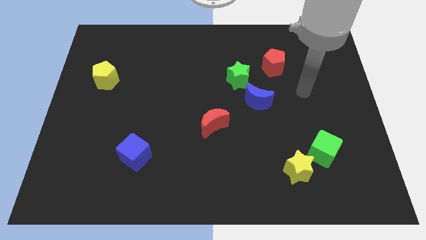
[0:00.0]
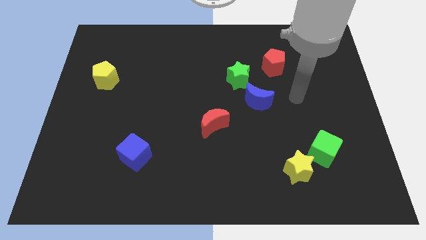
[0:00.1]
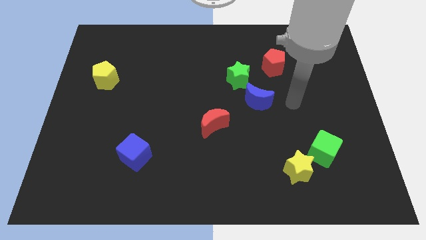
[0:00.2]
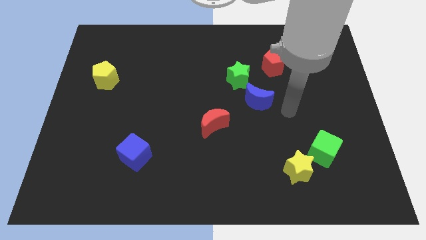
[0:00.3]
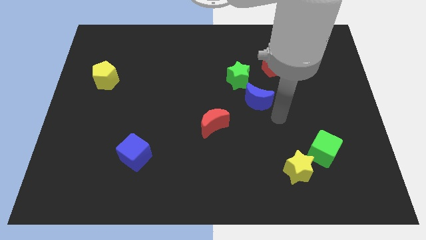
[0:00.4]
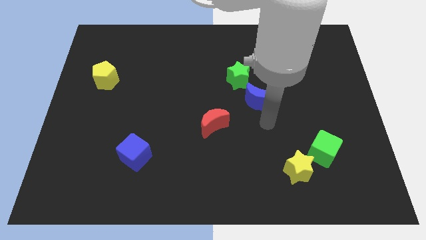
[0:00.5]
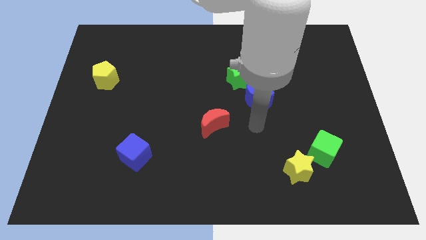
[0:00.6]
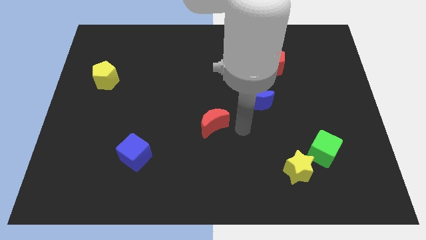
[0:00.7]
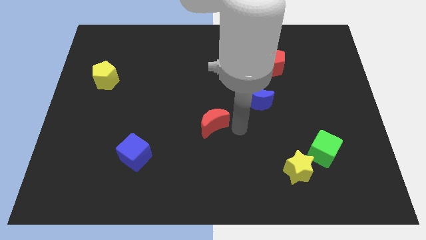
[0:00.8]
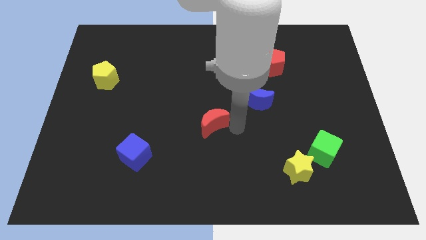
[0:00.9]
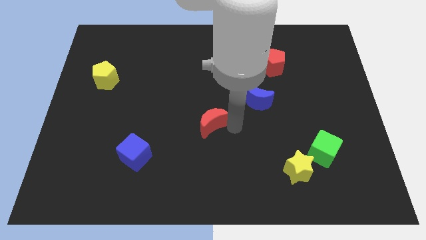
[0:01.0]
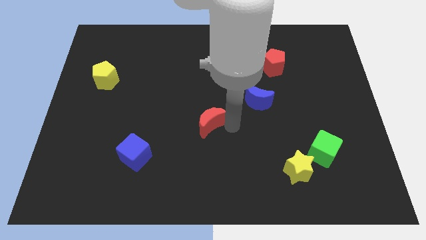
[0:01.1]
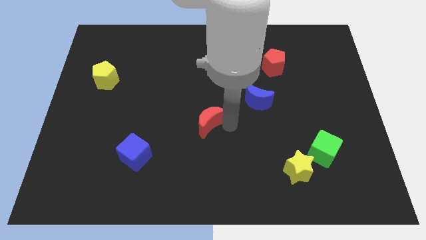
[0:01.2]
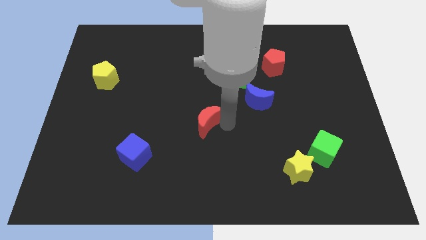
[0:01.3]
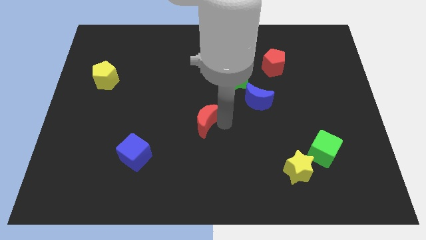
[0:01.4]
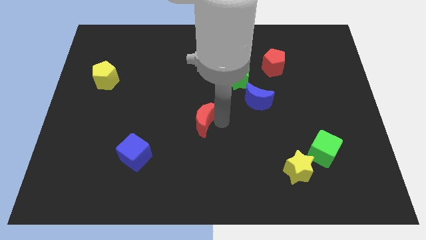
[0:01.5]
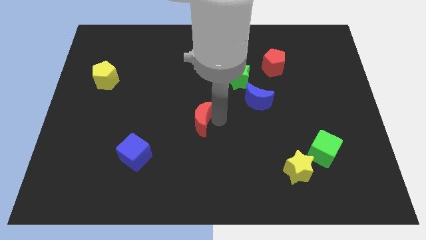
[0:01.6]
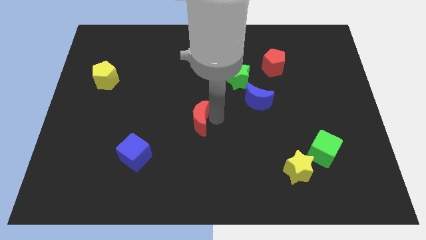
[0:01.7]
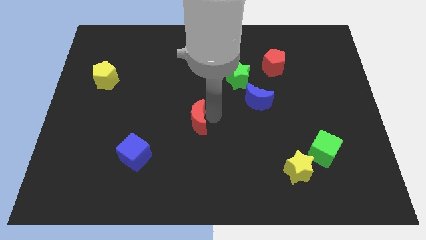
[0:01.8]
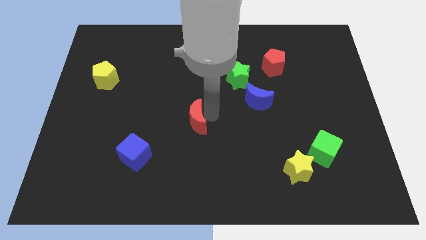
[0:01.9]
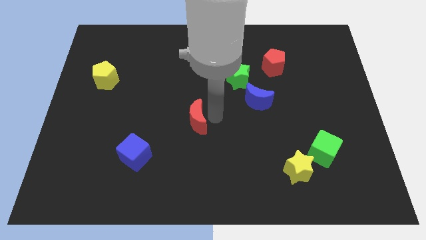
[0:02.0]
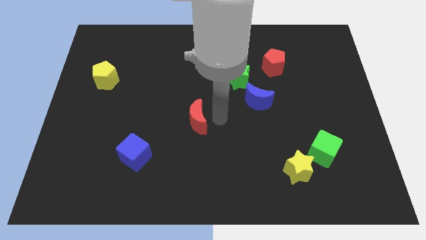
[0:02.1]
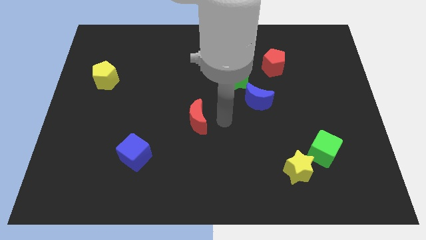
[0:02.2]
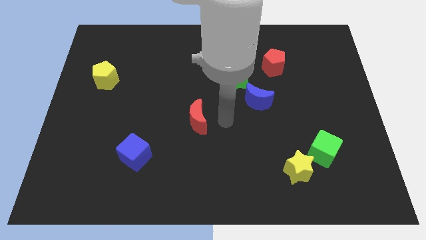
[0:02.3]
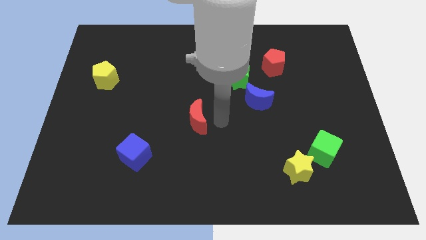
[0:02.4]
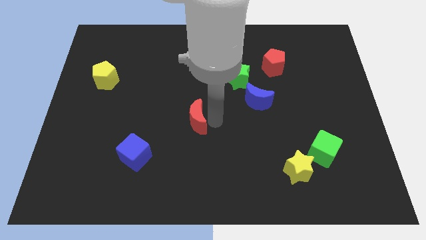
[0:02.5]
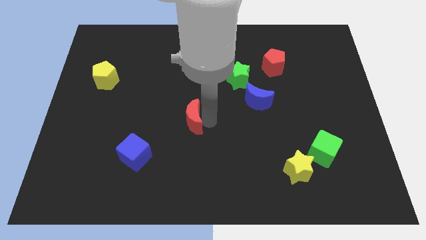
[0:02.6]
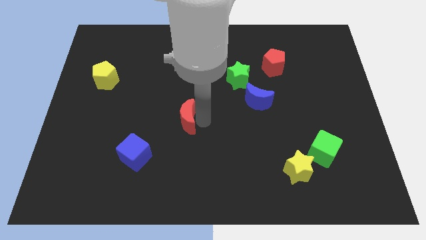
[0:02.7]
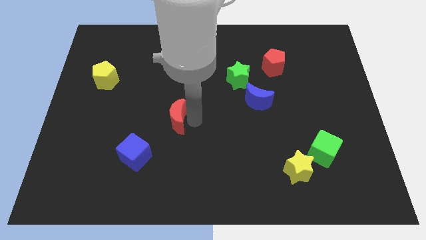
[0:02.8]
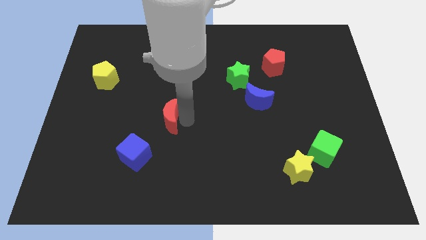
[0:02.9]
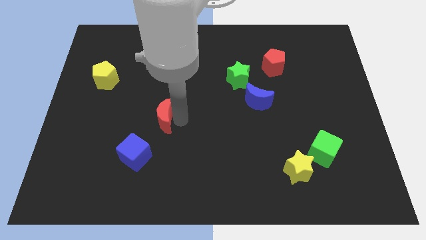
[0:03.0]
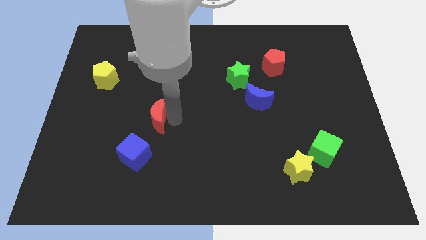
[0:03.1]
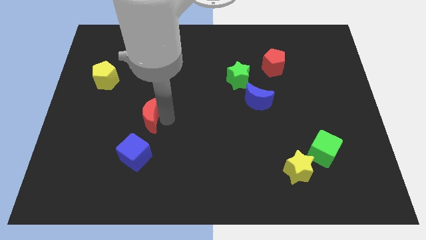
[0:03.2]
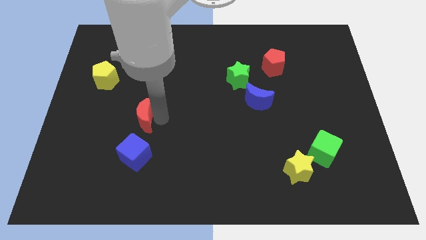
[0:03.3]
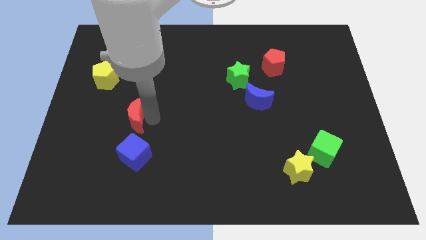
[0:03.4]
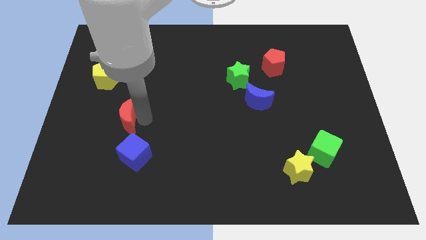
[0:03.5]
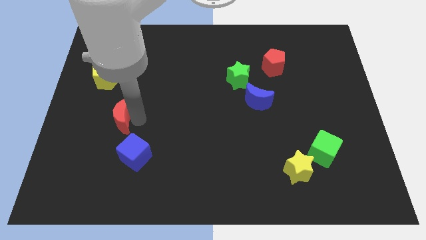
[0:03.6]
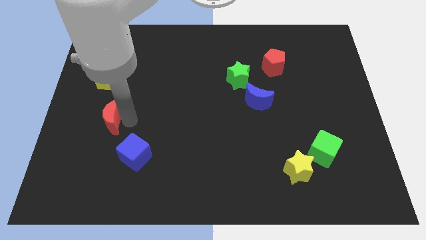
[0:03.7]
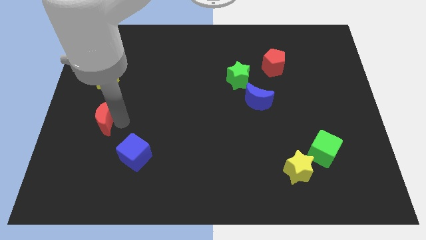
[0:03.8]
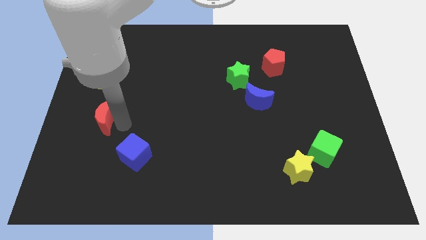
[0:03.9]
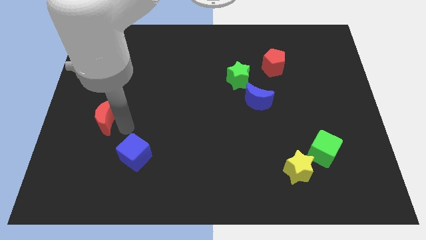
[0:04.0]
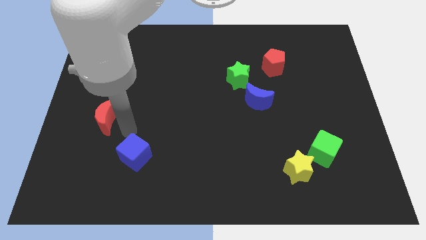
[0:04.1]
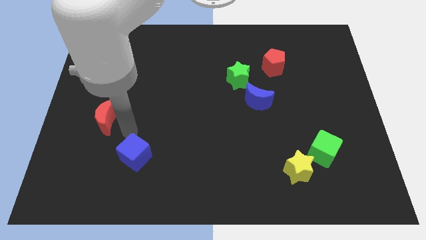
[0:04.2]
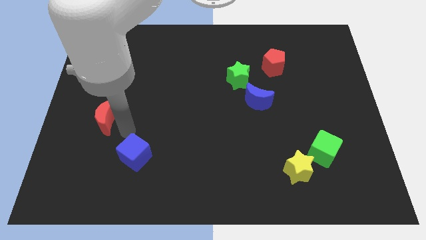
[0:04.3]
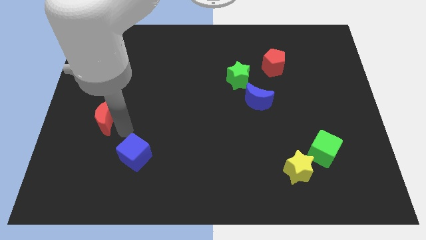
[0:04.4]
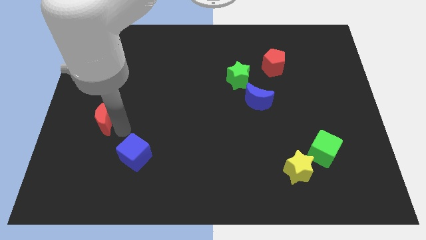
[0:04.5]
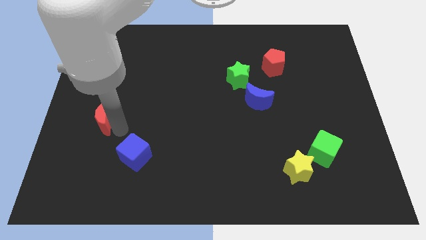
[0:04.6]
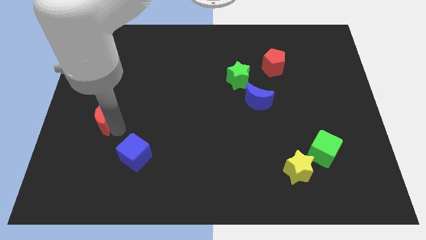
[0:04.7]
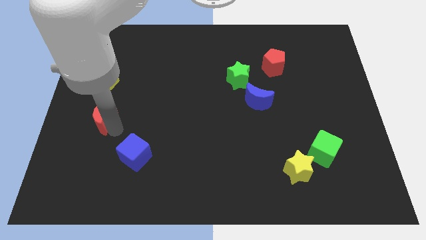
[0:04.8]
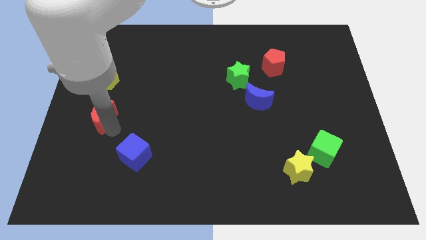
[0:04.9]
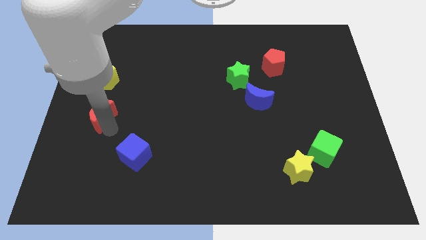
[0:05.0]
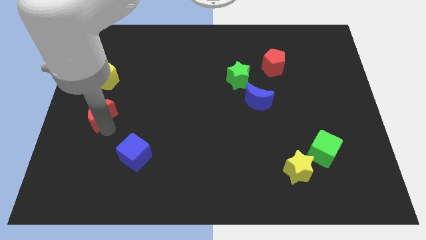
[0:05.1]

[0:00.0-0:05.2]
put the red moon to the left side
